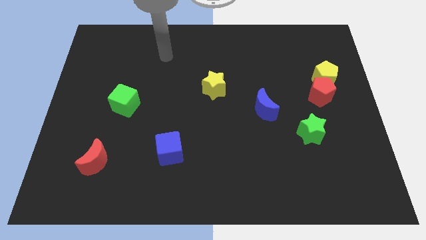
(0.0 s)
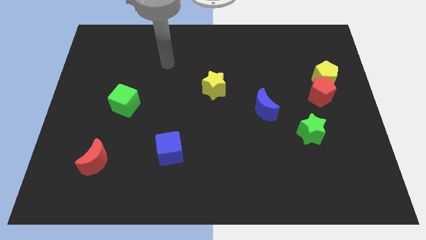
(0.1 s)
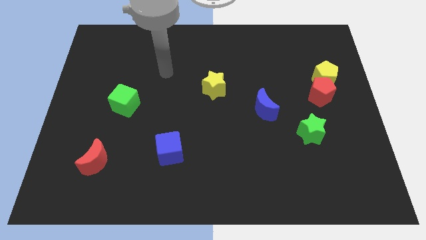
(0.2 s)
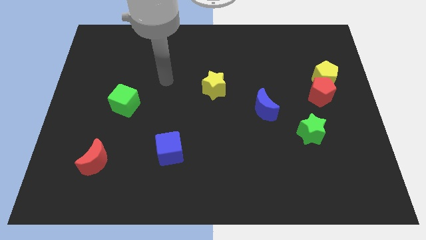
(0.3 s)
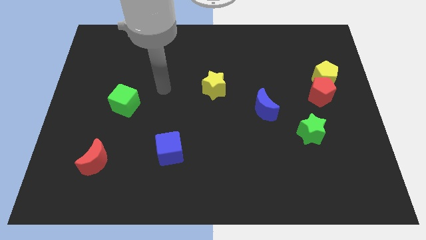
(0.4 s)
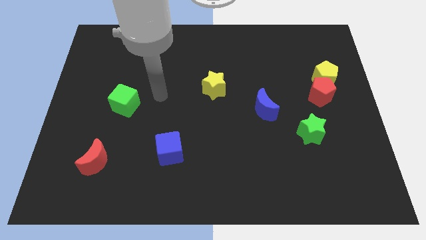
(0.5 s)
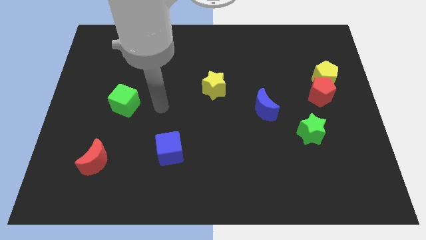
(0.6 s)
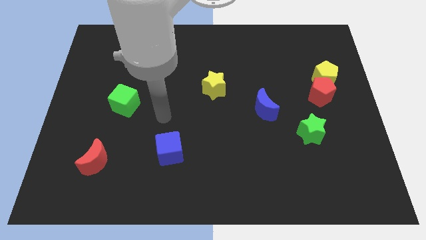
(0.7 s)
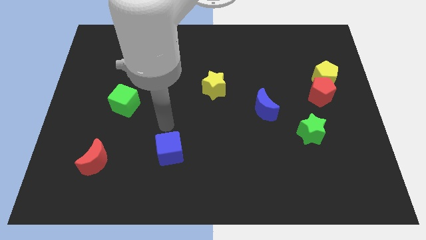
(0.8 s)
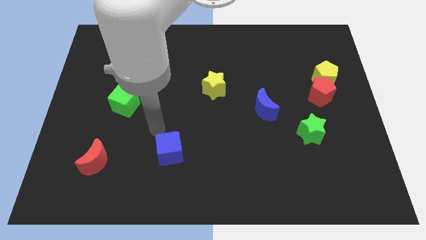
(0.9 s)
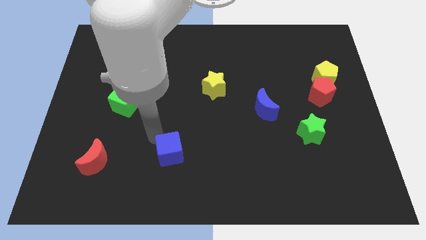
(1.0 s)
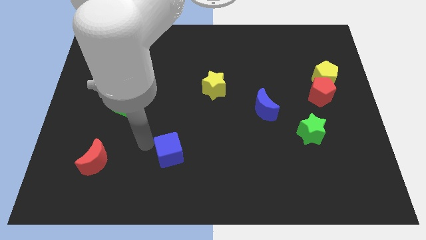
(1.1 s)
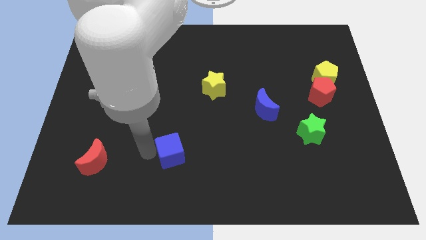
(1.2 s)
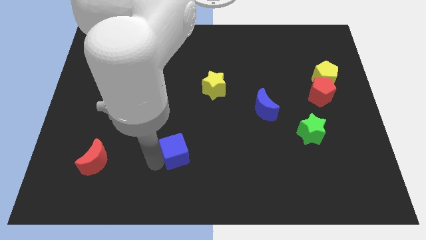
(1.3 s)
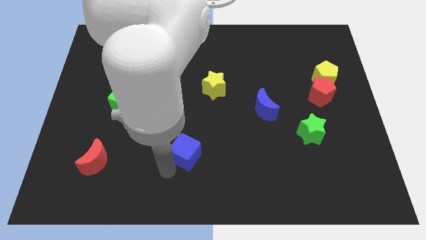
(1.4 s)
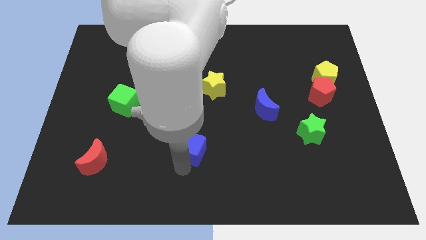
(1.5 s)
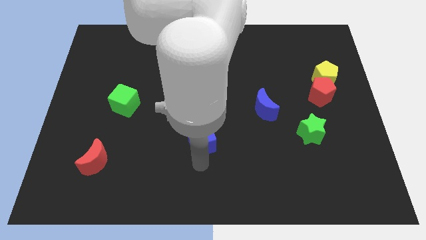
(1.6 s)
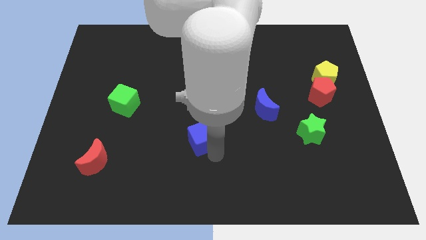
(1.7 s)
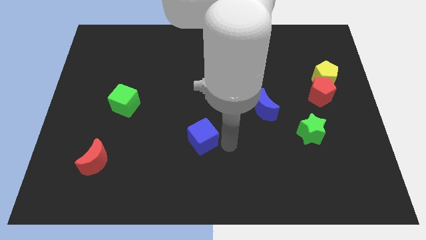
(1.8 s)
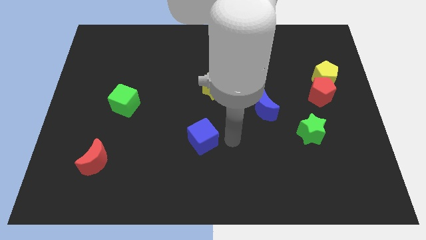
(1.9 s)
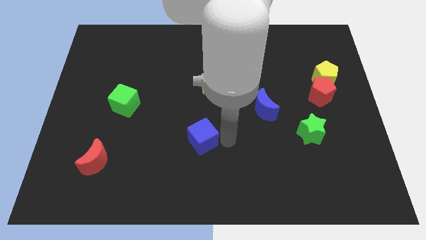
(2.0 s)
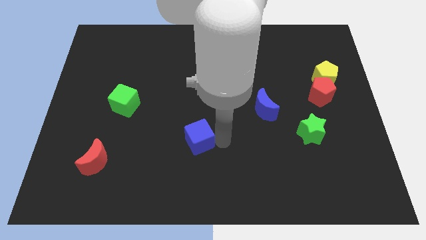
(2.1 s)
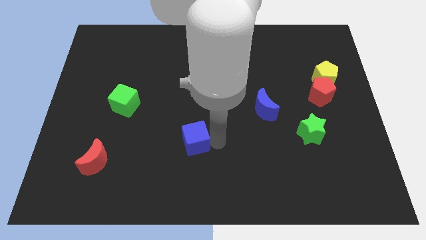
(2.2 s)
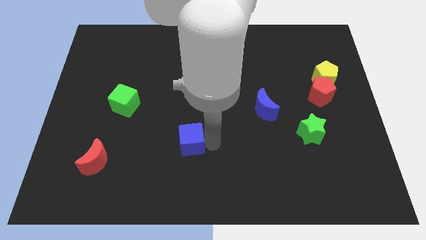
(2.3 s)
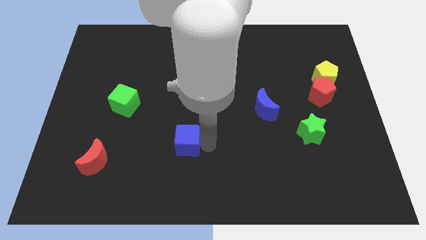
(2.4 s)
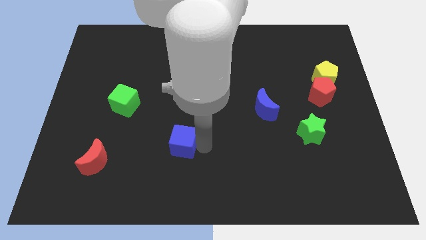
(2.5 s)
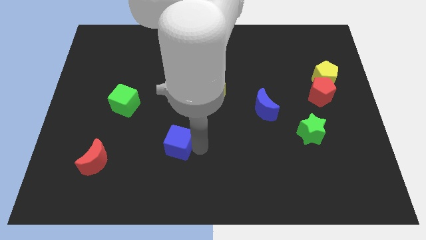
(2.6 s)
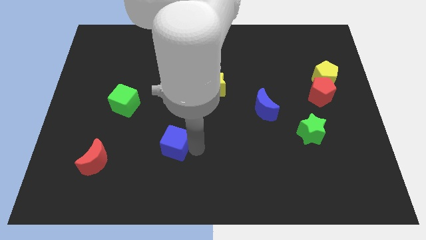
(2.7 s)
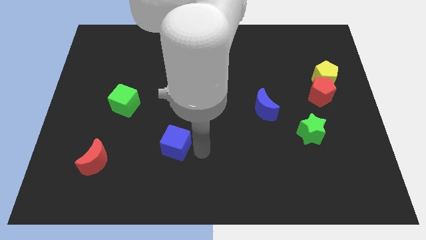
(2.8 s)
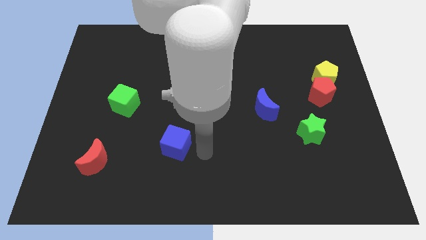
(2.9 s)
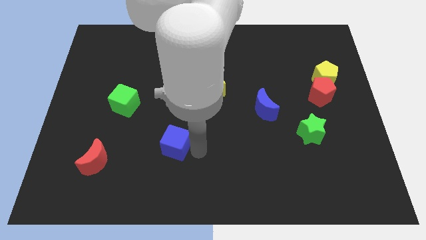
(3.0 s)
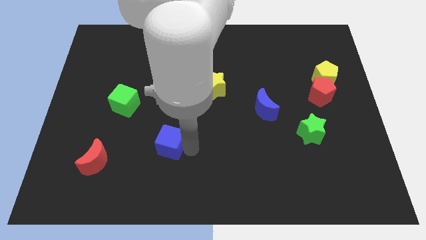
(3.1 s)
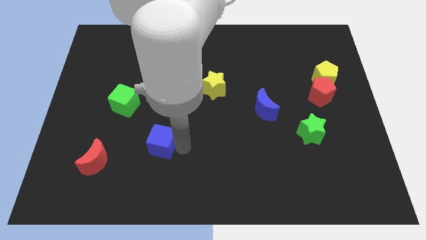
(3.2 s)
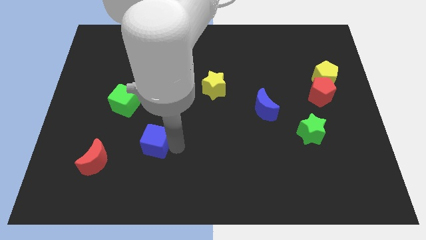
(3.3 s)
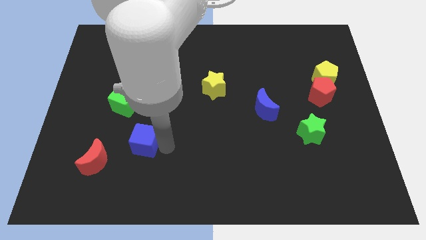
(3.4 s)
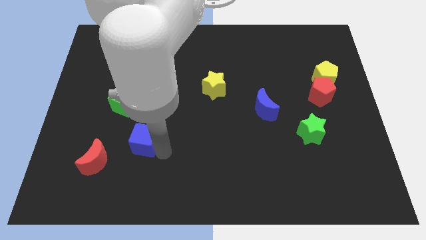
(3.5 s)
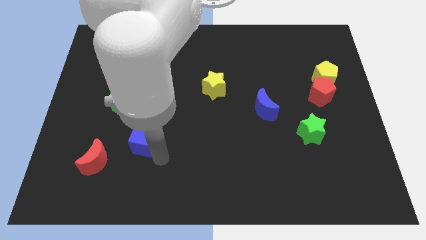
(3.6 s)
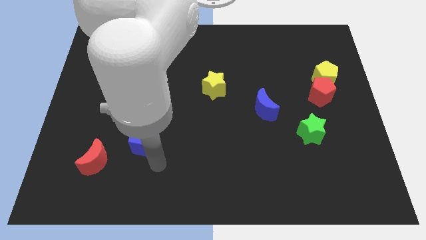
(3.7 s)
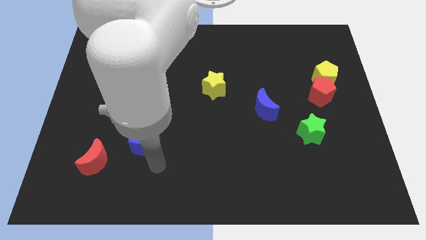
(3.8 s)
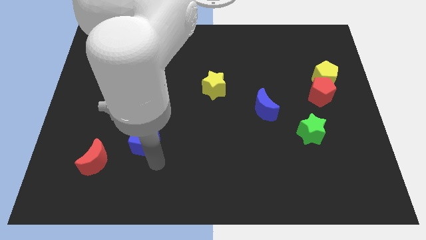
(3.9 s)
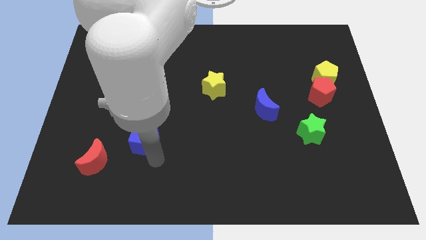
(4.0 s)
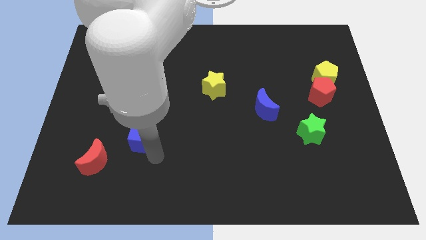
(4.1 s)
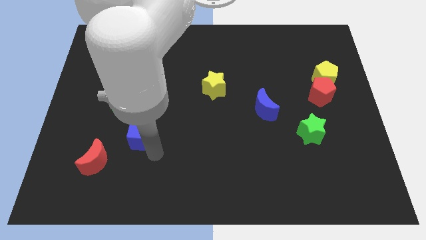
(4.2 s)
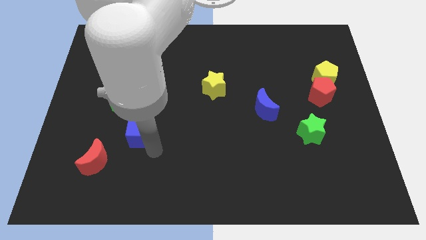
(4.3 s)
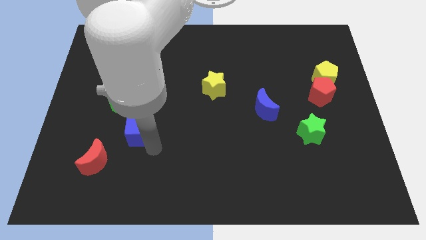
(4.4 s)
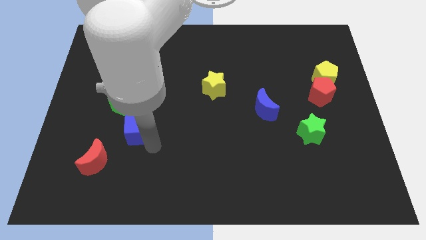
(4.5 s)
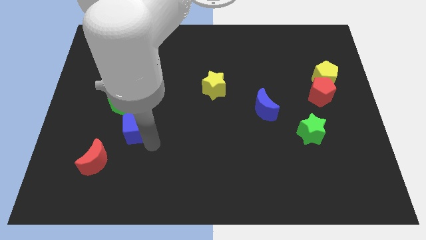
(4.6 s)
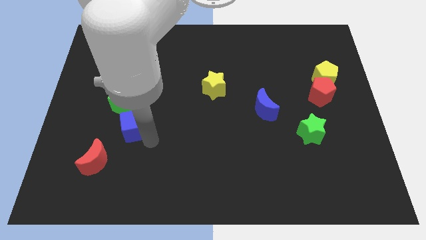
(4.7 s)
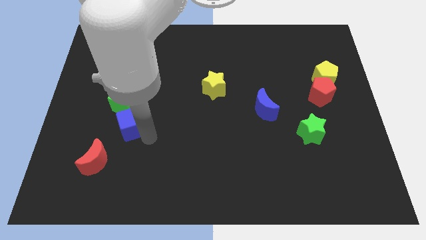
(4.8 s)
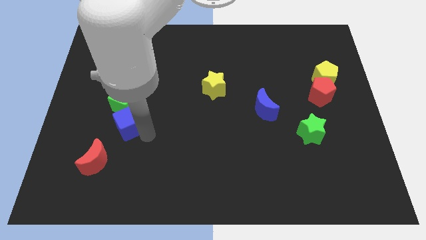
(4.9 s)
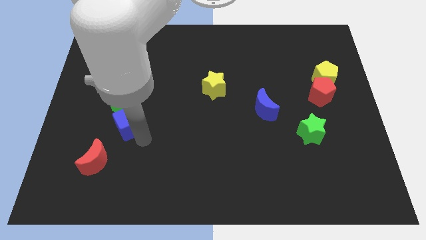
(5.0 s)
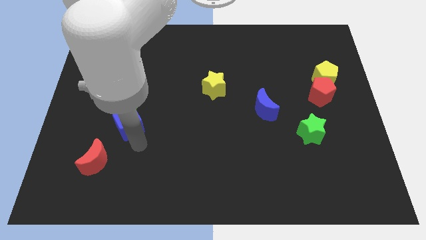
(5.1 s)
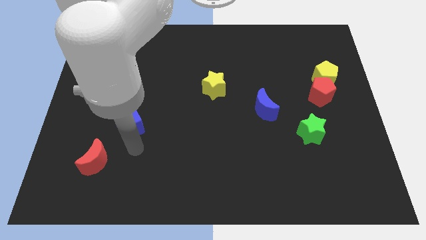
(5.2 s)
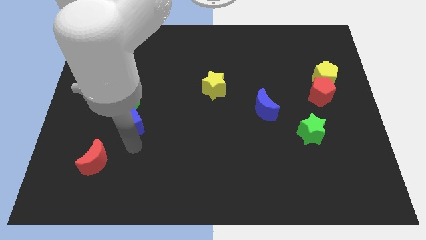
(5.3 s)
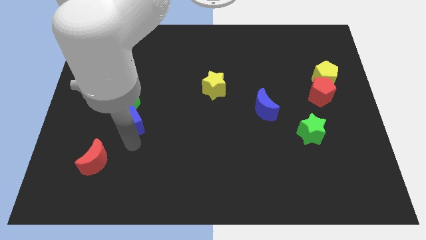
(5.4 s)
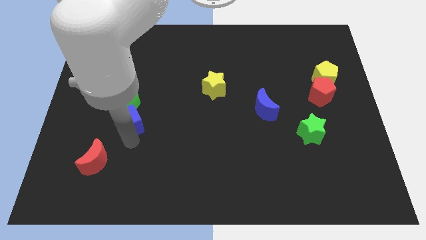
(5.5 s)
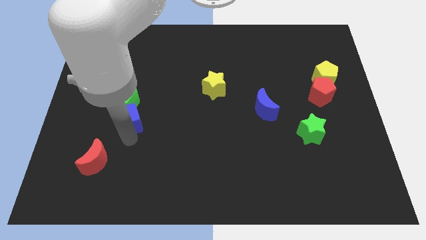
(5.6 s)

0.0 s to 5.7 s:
move the blue cube towards the green cube

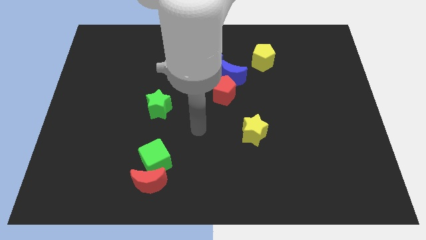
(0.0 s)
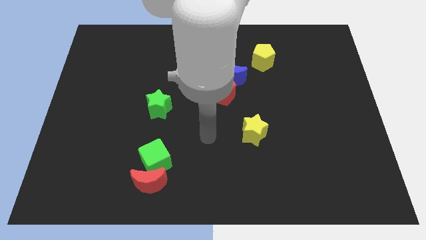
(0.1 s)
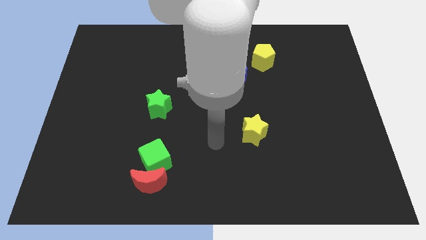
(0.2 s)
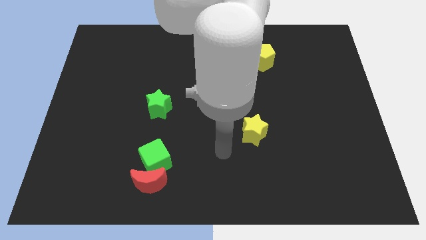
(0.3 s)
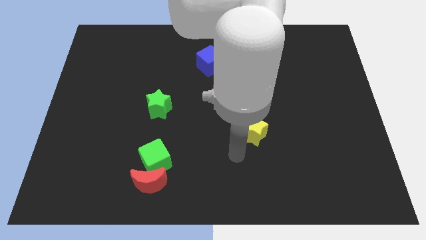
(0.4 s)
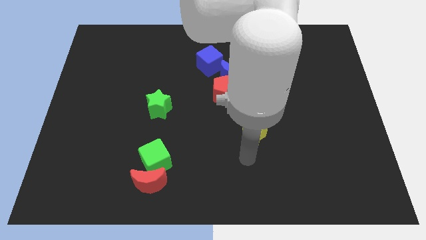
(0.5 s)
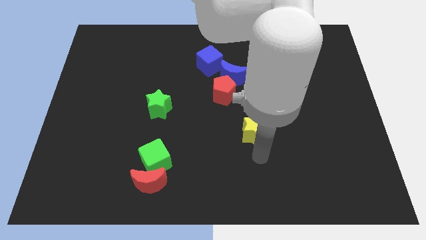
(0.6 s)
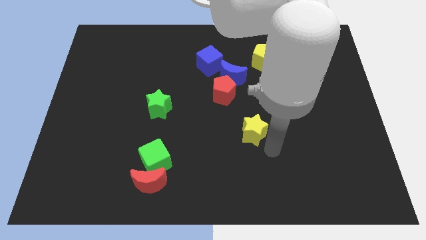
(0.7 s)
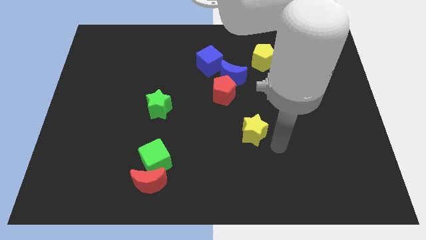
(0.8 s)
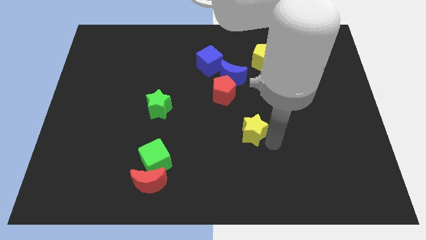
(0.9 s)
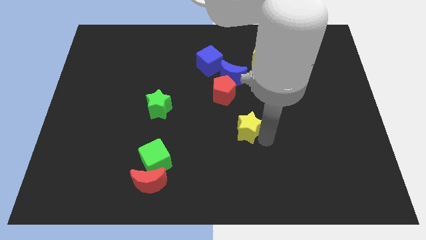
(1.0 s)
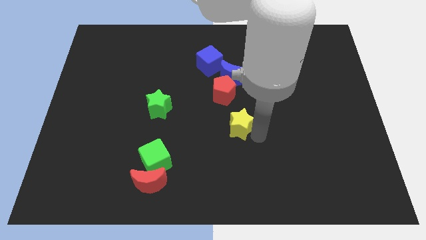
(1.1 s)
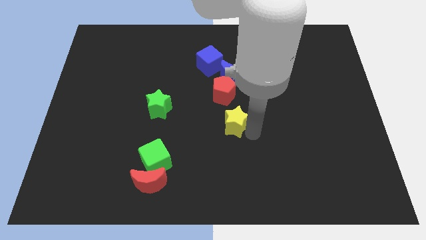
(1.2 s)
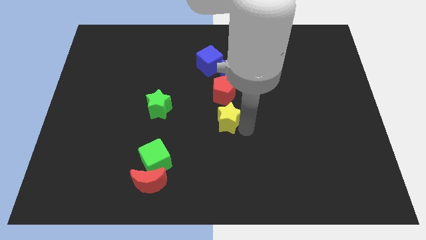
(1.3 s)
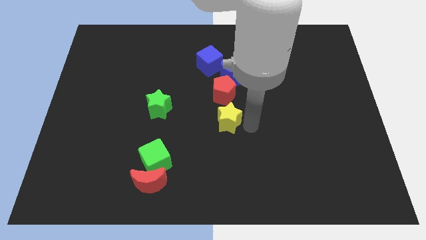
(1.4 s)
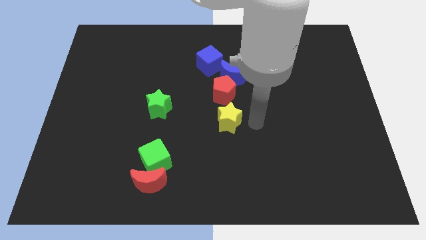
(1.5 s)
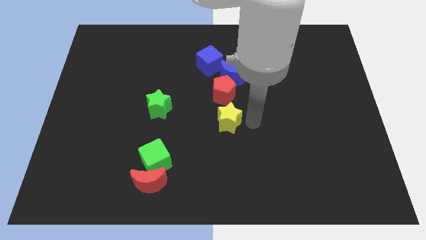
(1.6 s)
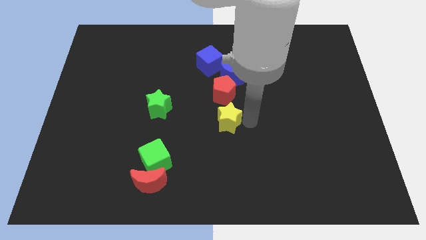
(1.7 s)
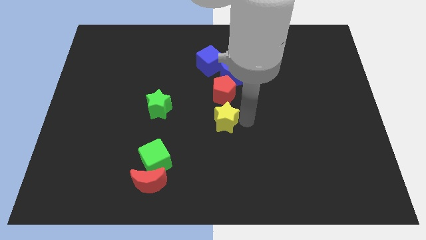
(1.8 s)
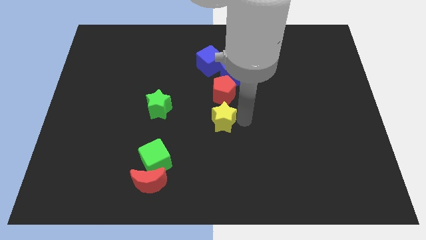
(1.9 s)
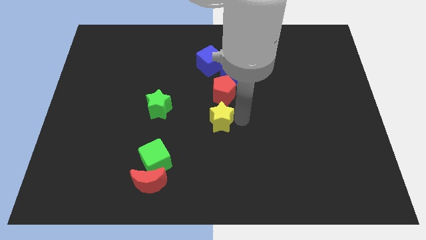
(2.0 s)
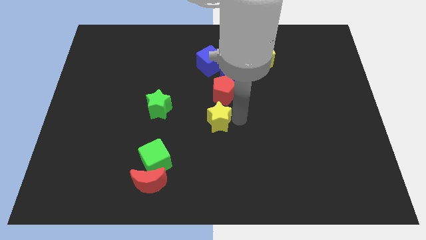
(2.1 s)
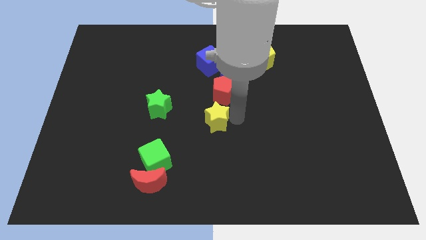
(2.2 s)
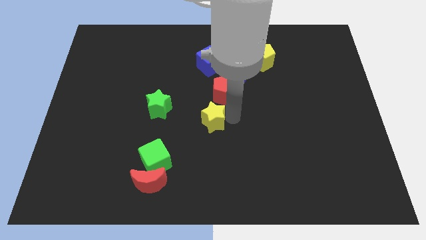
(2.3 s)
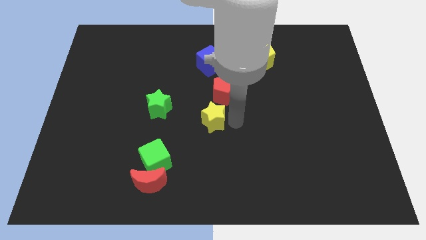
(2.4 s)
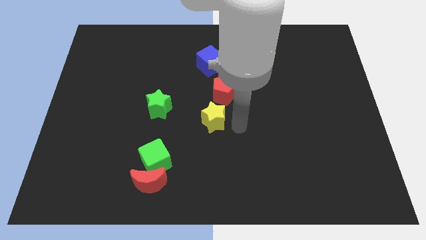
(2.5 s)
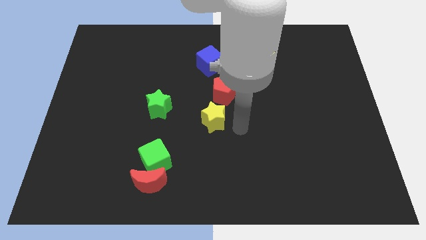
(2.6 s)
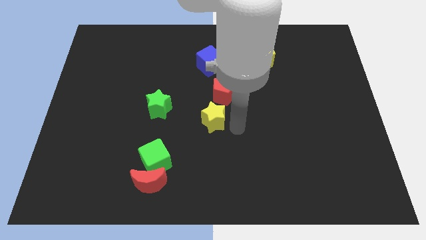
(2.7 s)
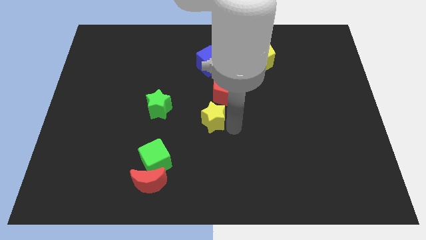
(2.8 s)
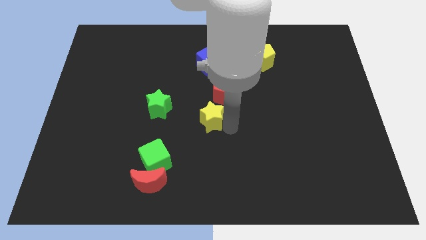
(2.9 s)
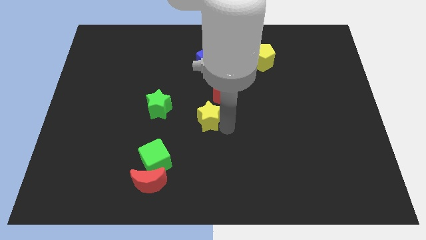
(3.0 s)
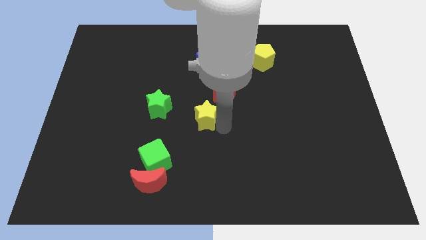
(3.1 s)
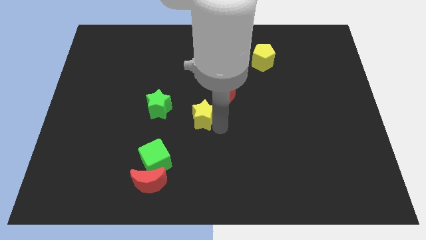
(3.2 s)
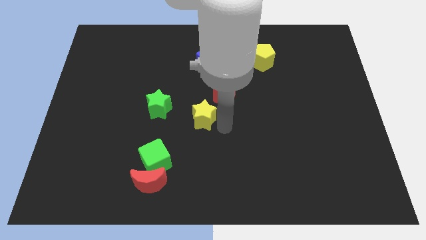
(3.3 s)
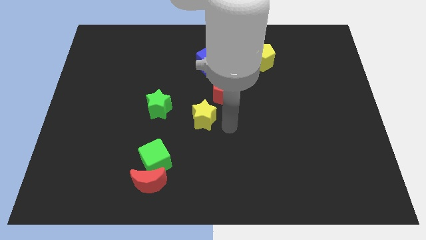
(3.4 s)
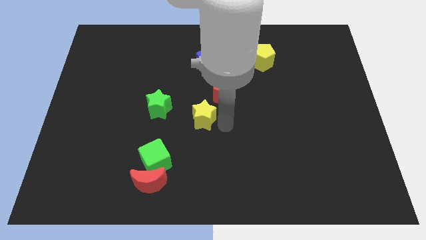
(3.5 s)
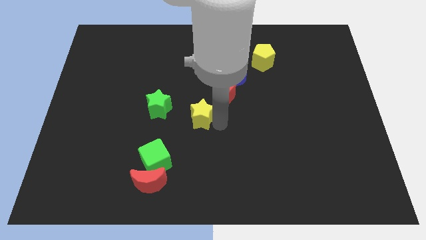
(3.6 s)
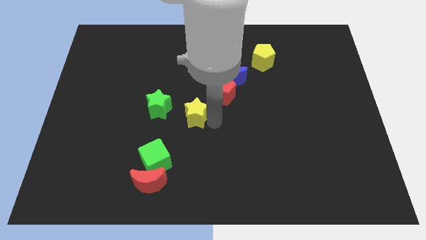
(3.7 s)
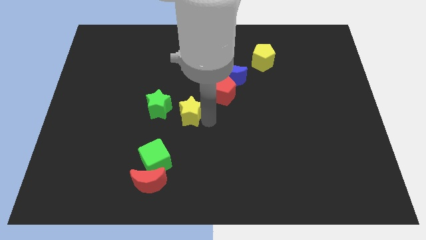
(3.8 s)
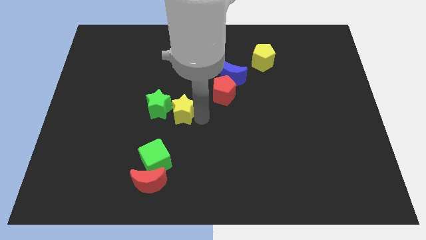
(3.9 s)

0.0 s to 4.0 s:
push the yellow star next to the green star
